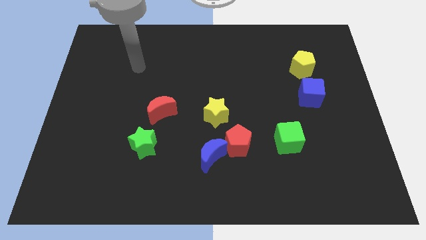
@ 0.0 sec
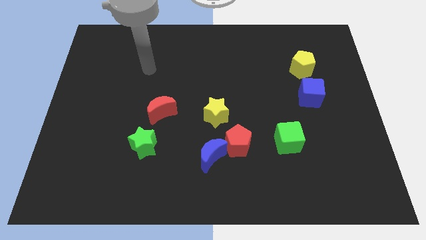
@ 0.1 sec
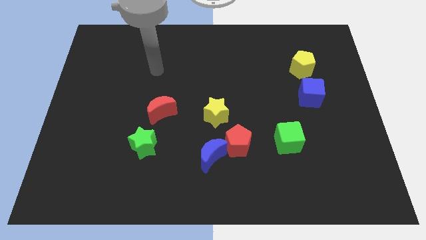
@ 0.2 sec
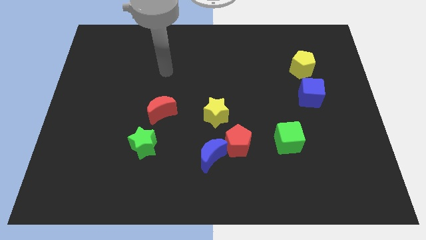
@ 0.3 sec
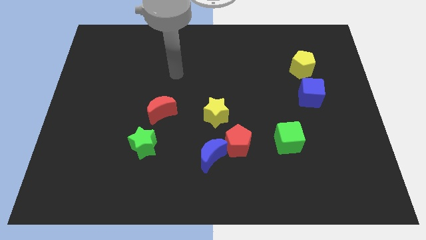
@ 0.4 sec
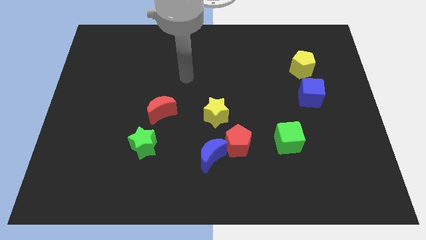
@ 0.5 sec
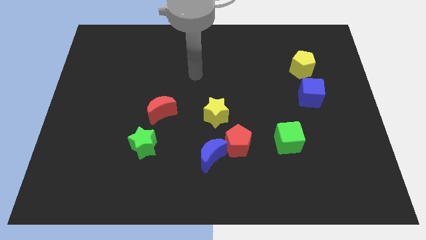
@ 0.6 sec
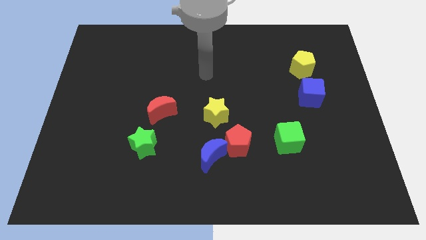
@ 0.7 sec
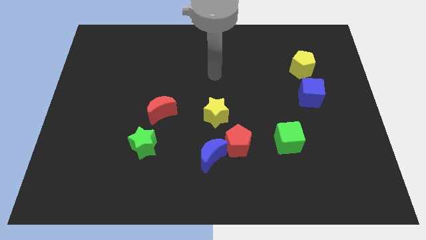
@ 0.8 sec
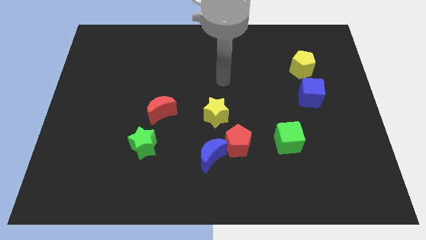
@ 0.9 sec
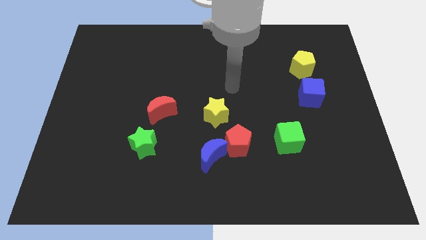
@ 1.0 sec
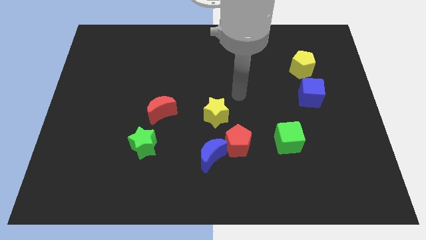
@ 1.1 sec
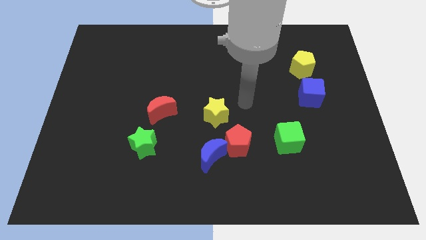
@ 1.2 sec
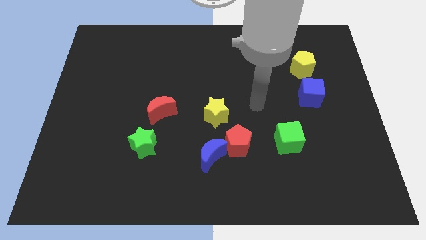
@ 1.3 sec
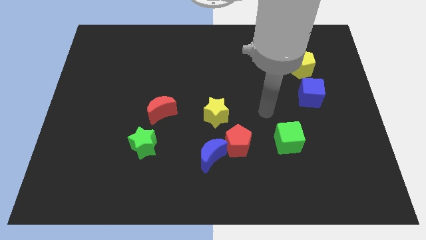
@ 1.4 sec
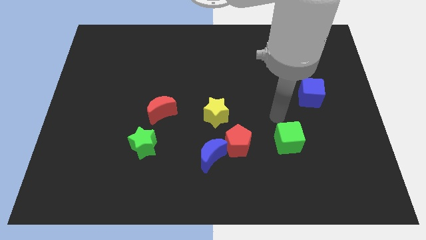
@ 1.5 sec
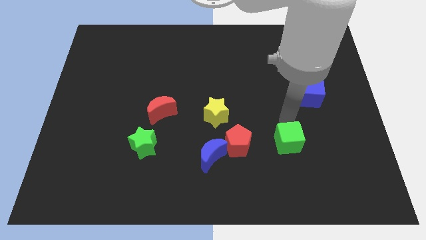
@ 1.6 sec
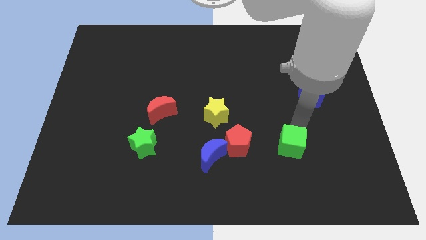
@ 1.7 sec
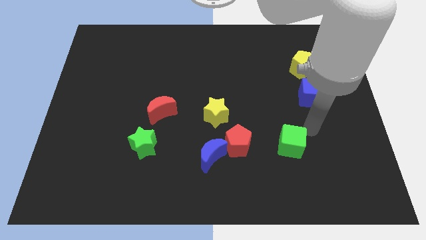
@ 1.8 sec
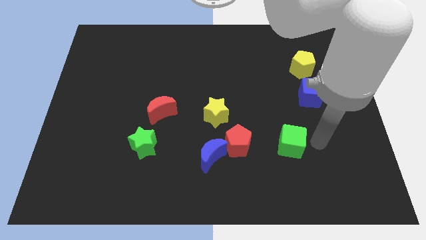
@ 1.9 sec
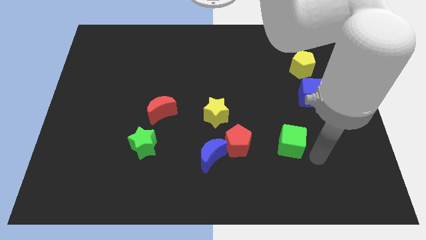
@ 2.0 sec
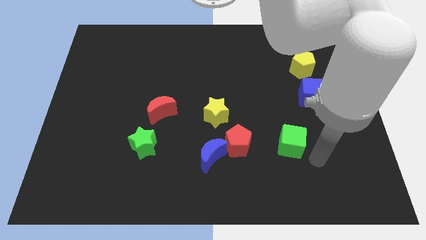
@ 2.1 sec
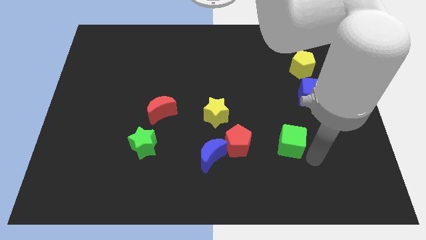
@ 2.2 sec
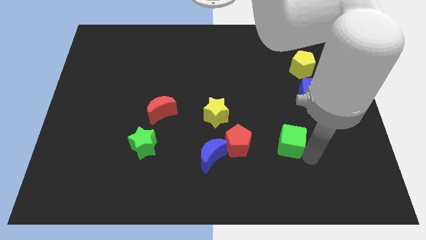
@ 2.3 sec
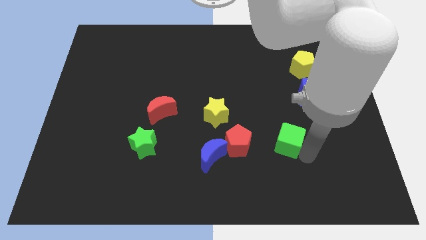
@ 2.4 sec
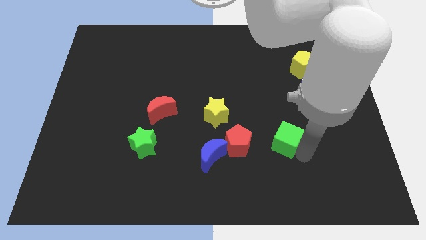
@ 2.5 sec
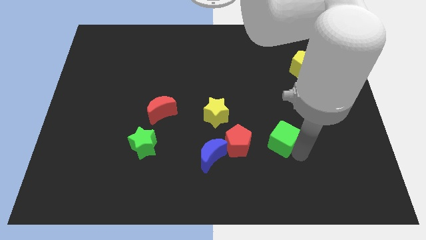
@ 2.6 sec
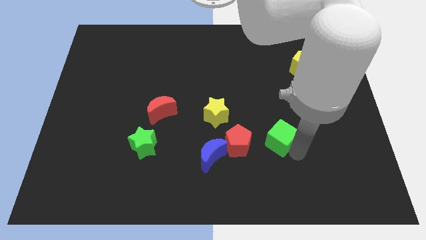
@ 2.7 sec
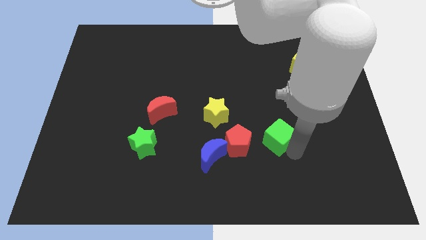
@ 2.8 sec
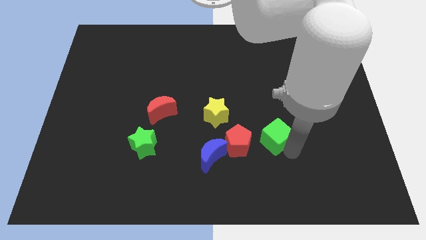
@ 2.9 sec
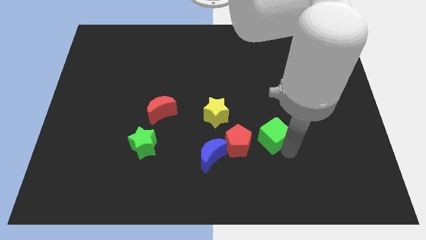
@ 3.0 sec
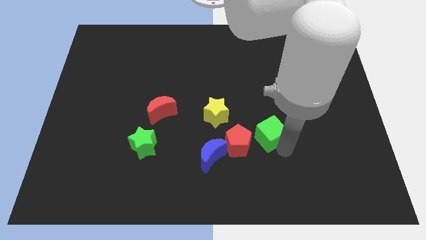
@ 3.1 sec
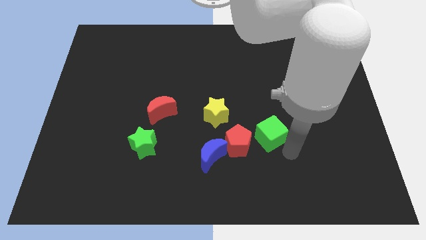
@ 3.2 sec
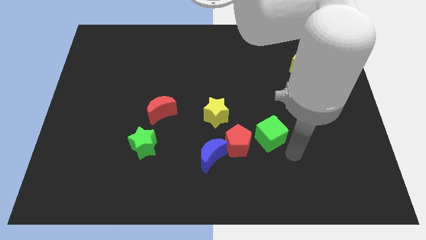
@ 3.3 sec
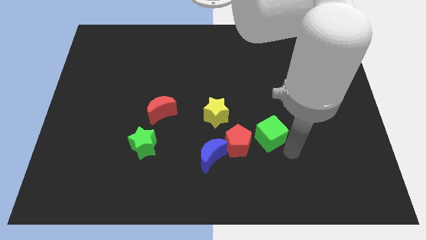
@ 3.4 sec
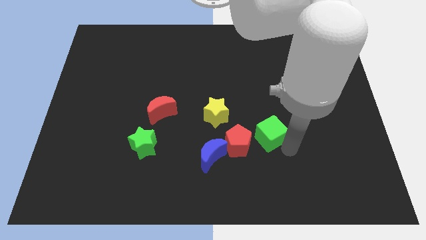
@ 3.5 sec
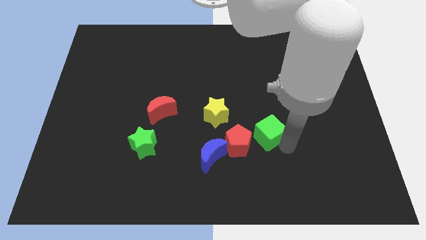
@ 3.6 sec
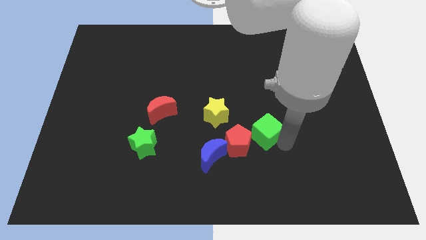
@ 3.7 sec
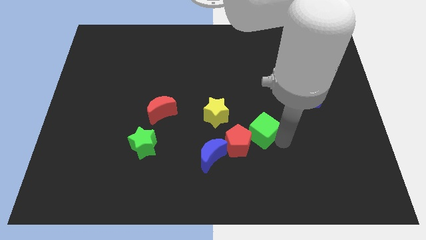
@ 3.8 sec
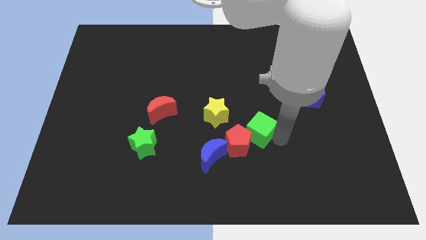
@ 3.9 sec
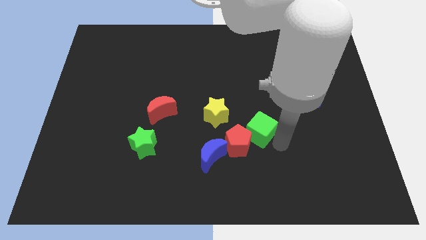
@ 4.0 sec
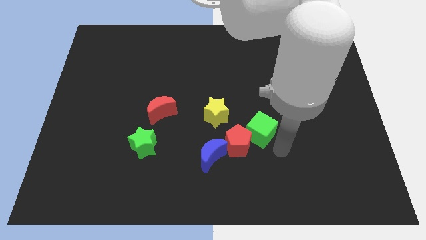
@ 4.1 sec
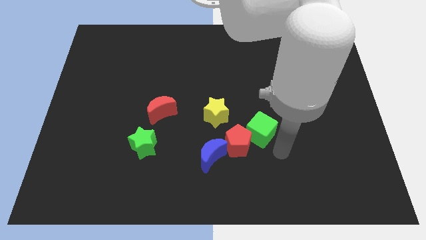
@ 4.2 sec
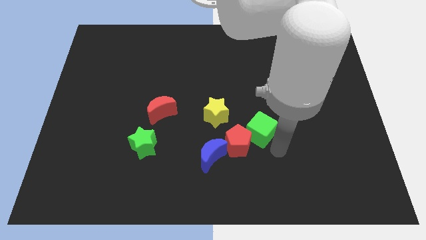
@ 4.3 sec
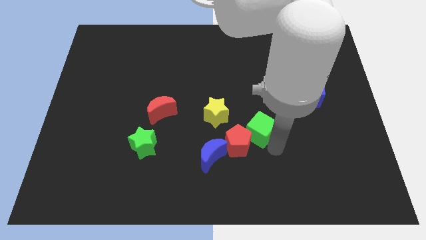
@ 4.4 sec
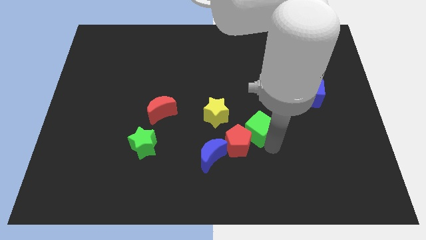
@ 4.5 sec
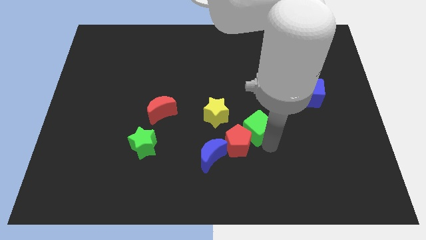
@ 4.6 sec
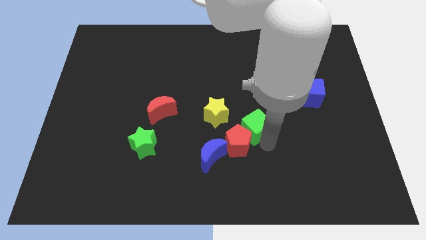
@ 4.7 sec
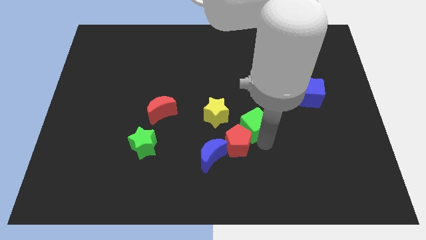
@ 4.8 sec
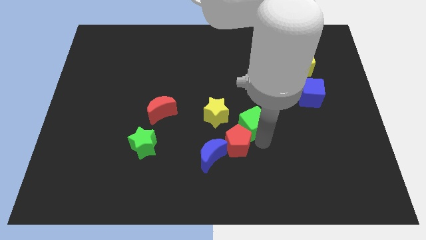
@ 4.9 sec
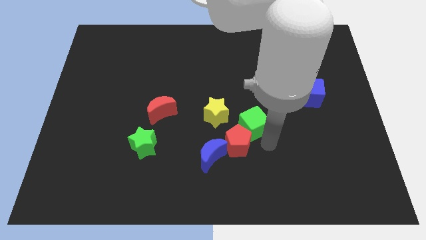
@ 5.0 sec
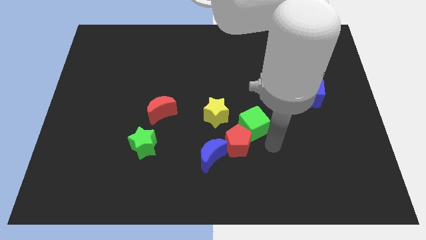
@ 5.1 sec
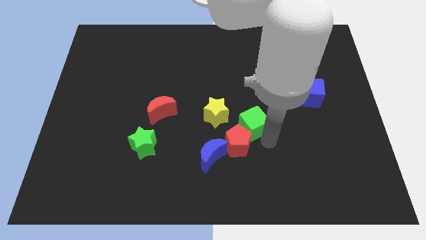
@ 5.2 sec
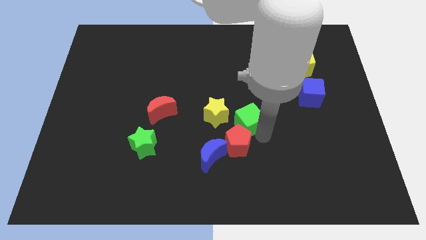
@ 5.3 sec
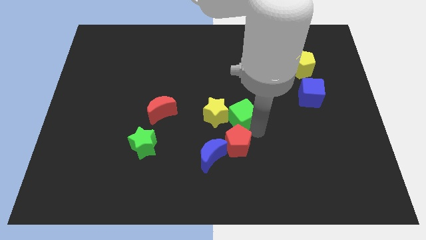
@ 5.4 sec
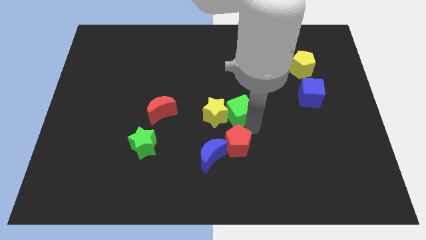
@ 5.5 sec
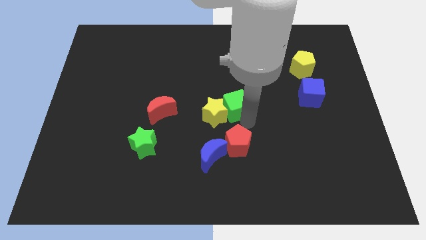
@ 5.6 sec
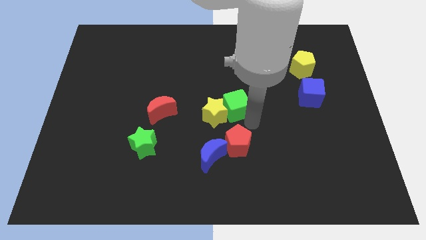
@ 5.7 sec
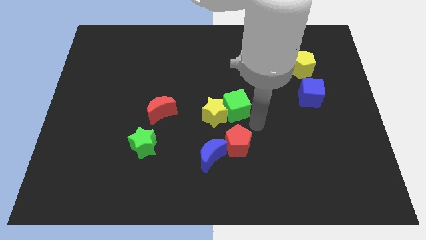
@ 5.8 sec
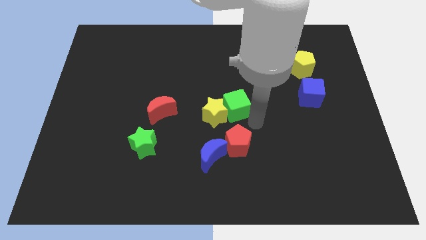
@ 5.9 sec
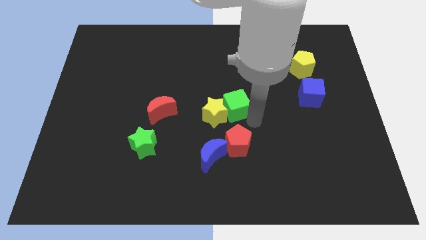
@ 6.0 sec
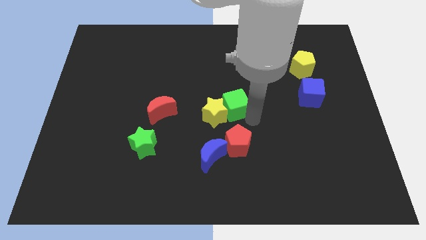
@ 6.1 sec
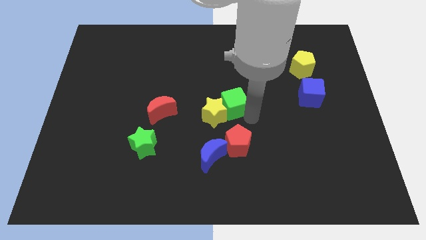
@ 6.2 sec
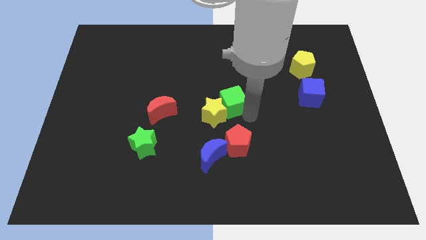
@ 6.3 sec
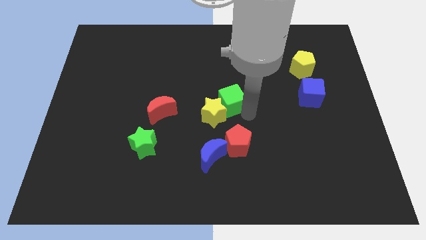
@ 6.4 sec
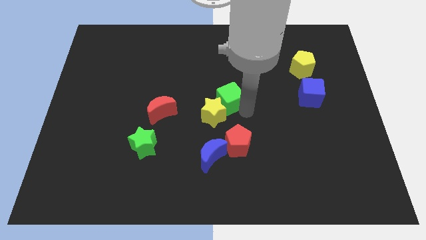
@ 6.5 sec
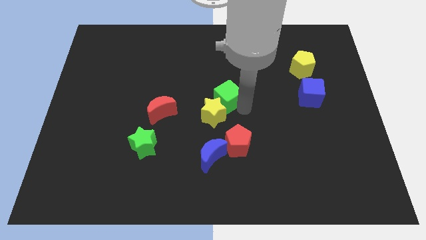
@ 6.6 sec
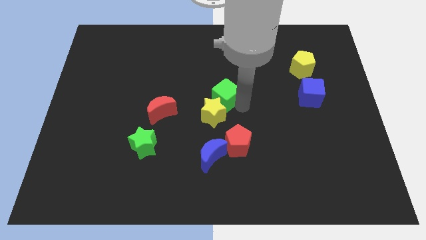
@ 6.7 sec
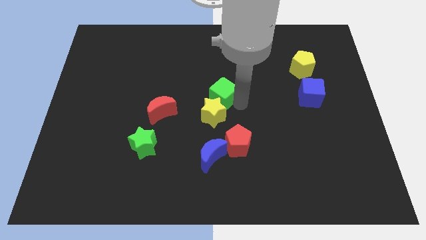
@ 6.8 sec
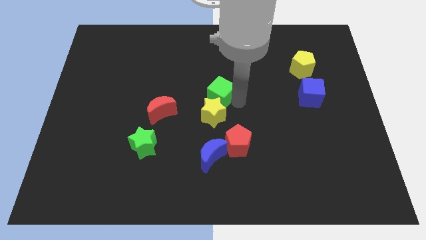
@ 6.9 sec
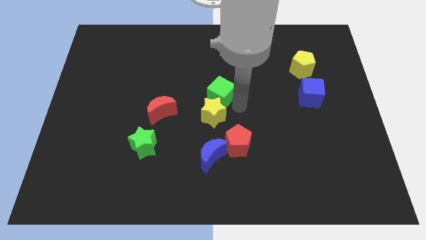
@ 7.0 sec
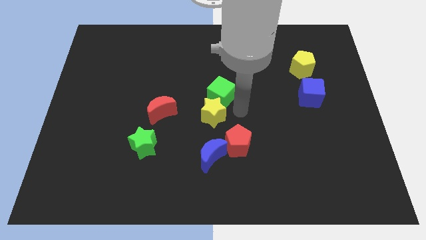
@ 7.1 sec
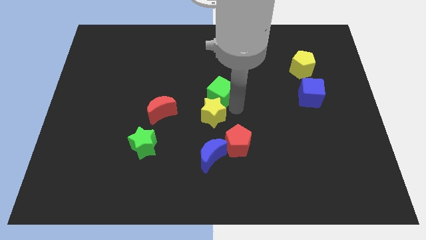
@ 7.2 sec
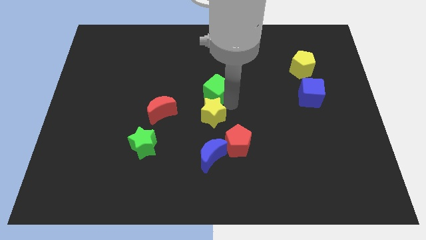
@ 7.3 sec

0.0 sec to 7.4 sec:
move the green cube up and then left

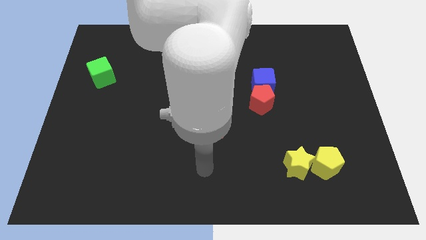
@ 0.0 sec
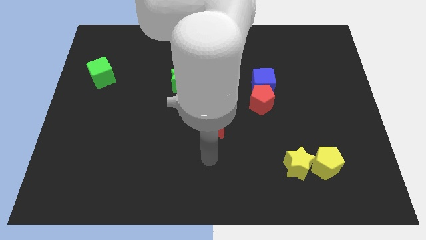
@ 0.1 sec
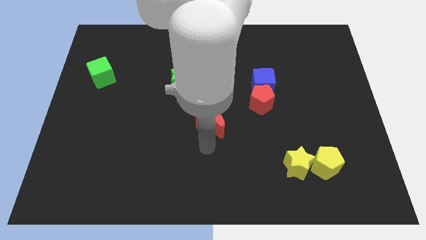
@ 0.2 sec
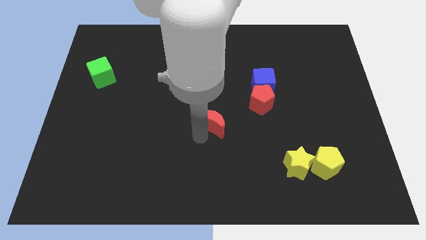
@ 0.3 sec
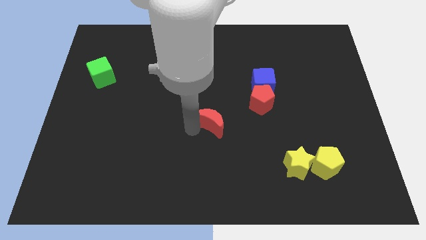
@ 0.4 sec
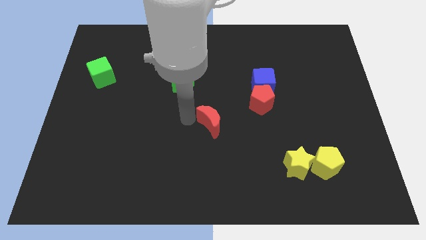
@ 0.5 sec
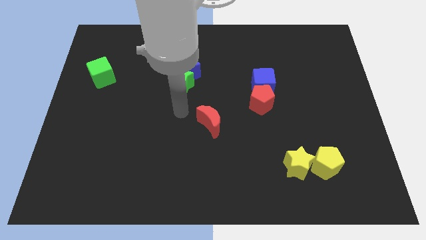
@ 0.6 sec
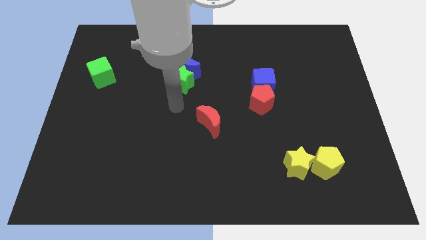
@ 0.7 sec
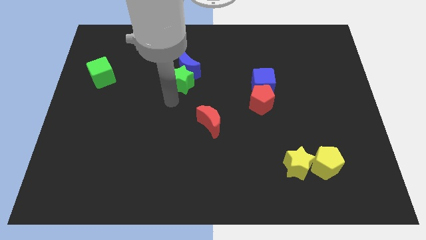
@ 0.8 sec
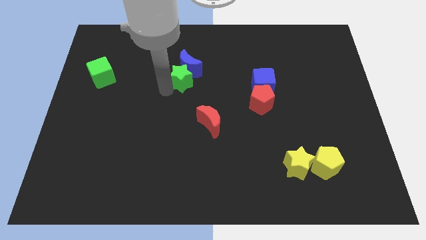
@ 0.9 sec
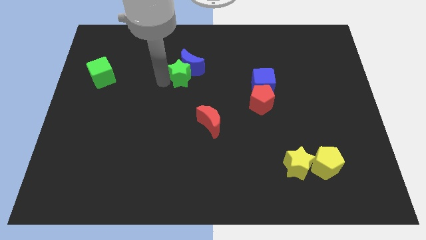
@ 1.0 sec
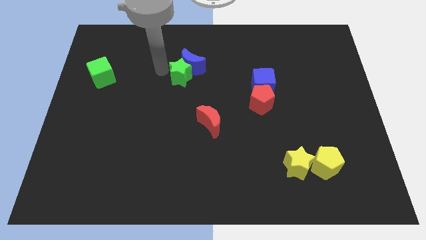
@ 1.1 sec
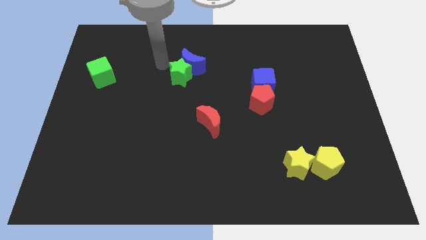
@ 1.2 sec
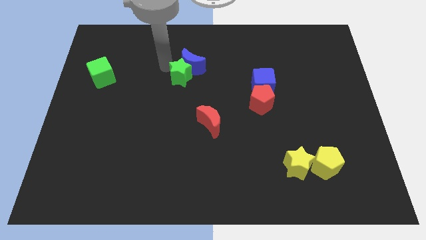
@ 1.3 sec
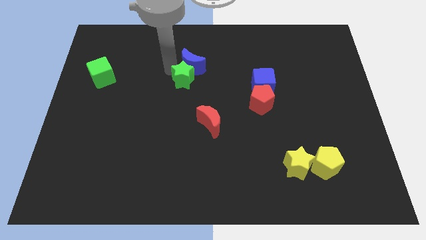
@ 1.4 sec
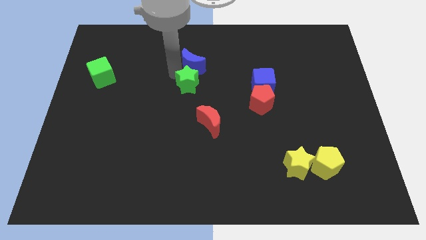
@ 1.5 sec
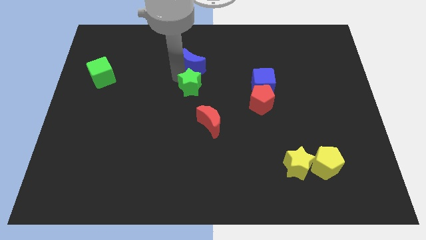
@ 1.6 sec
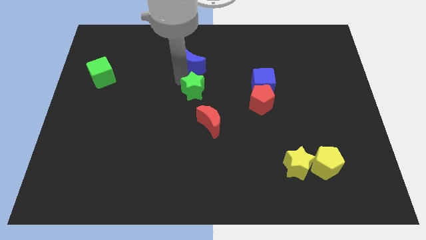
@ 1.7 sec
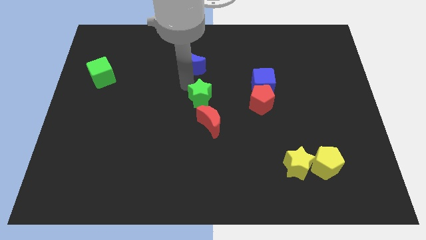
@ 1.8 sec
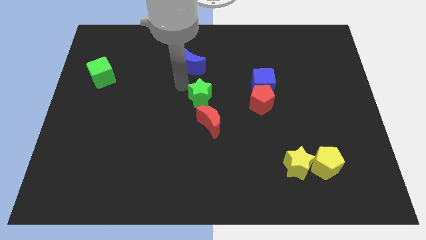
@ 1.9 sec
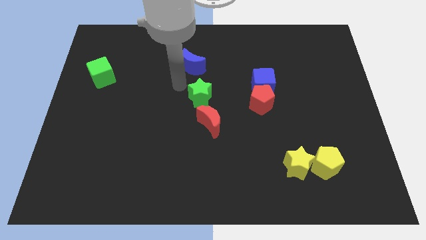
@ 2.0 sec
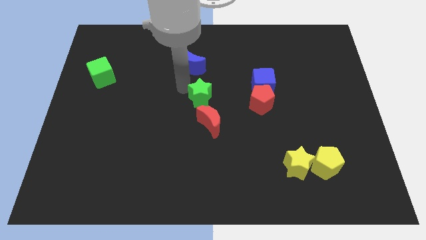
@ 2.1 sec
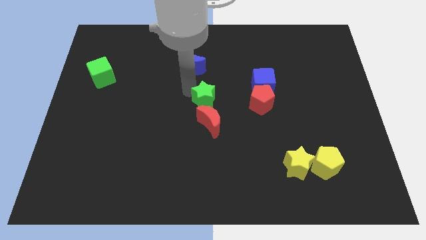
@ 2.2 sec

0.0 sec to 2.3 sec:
push the green star downwards and right diagonally somewhat
